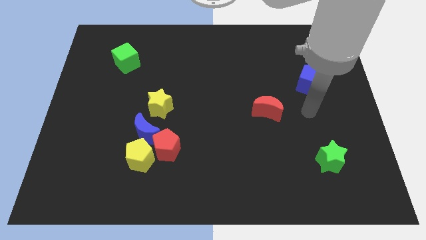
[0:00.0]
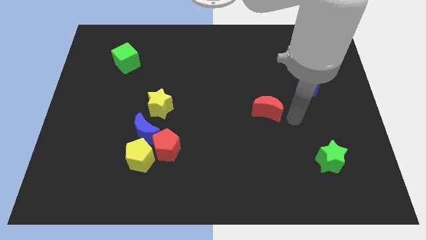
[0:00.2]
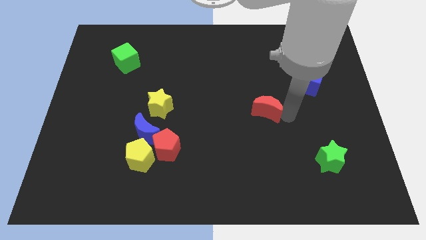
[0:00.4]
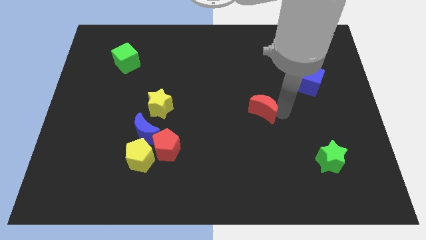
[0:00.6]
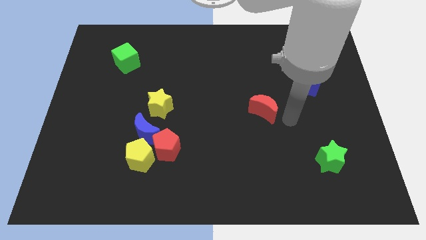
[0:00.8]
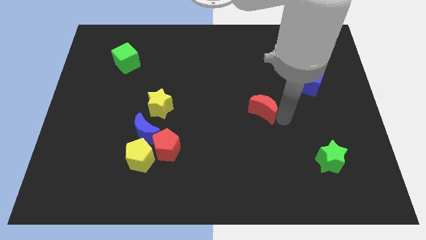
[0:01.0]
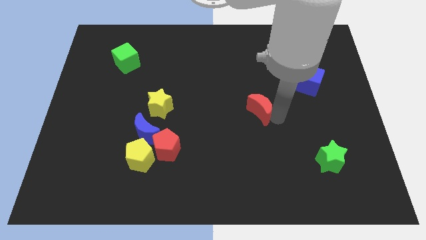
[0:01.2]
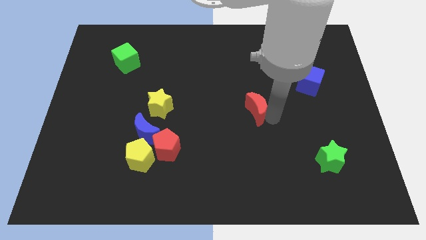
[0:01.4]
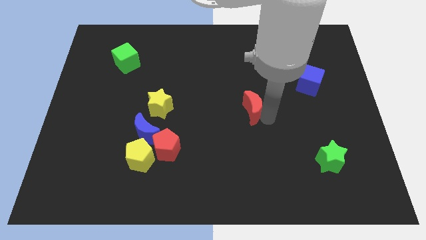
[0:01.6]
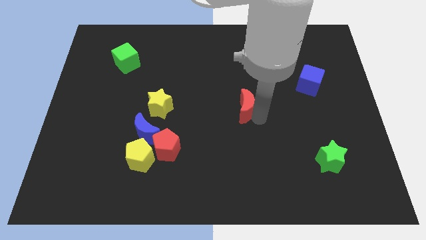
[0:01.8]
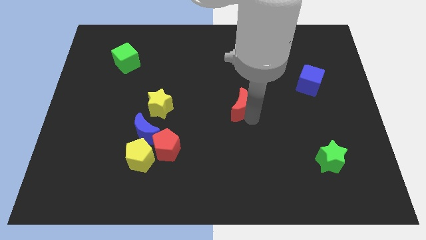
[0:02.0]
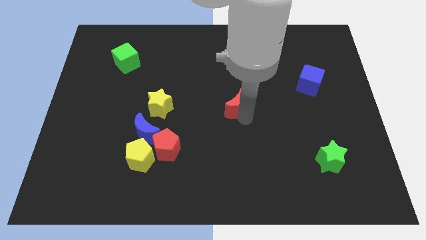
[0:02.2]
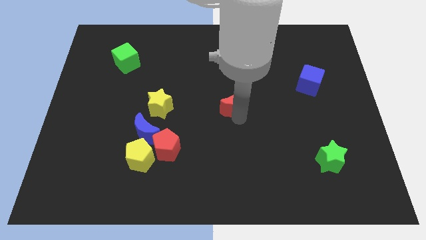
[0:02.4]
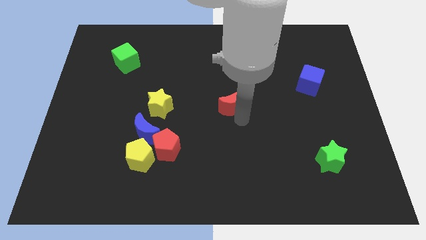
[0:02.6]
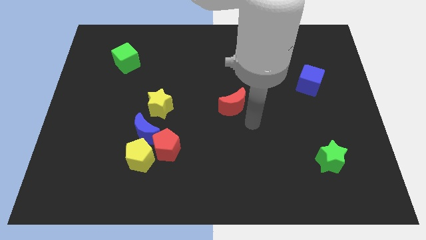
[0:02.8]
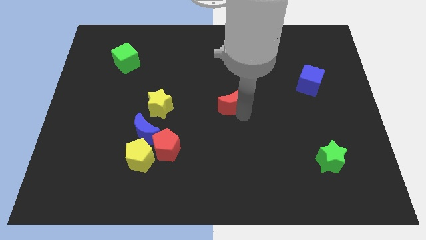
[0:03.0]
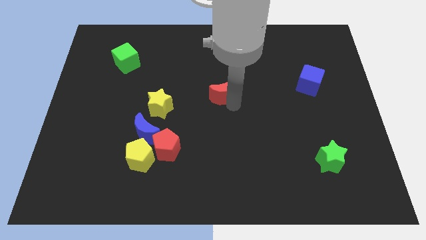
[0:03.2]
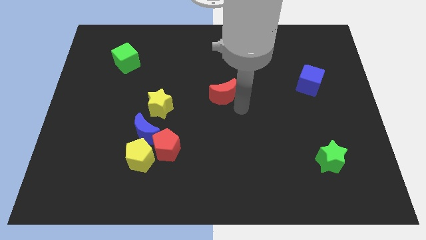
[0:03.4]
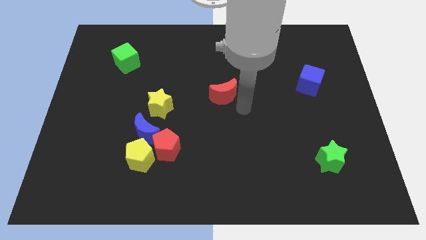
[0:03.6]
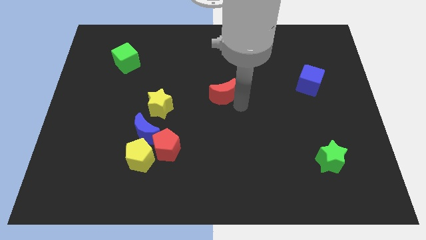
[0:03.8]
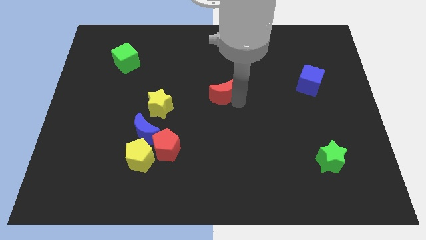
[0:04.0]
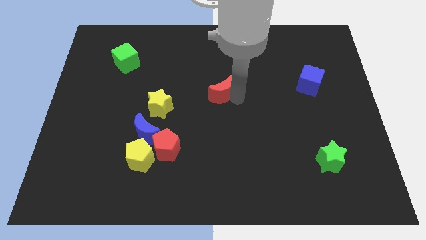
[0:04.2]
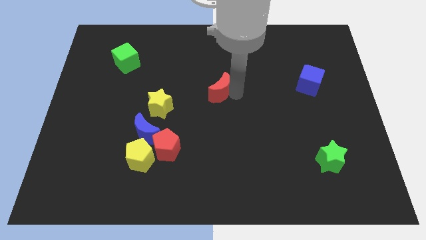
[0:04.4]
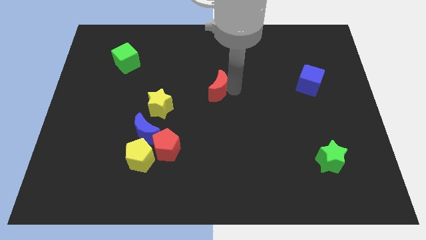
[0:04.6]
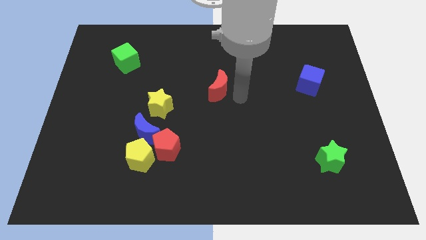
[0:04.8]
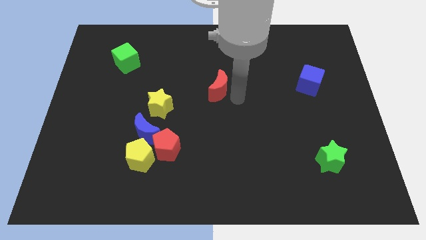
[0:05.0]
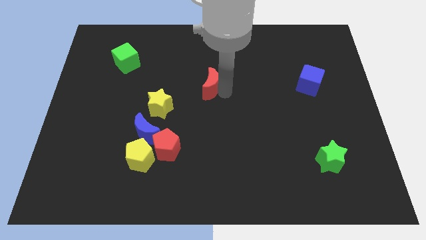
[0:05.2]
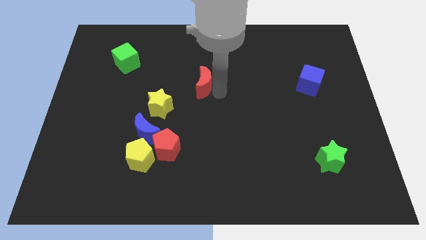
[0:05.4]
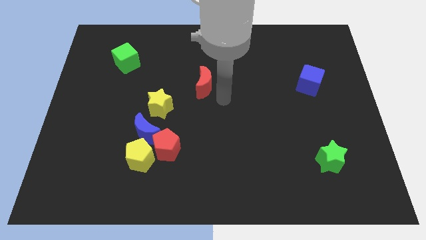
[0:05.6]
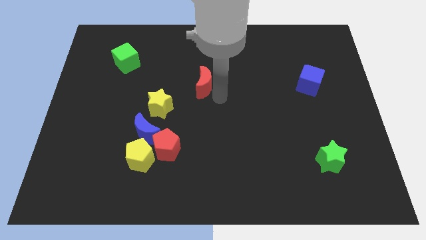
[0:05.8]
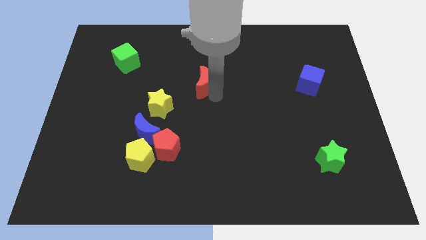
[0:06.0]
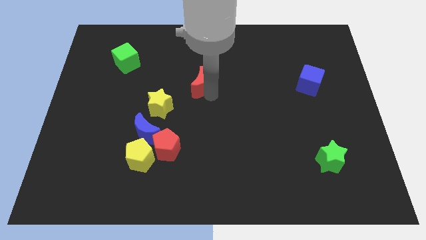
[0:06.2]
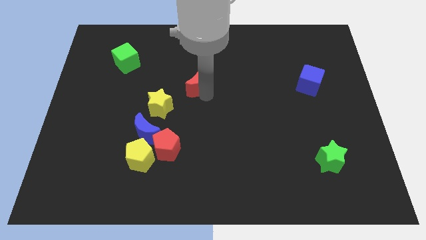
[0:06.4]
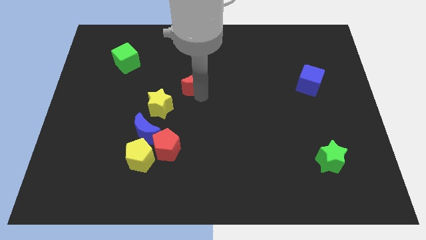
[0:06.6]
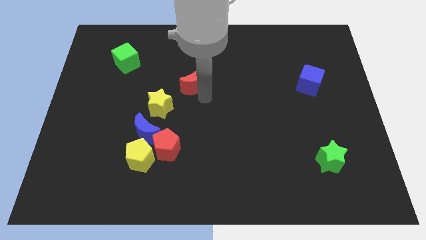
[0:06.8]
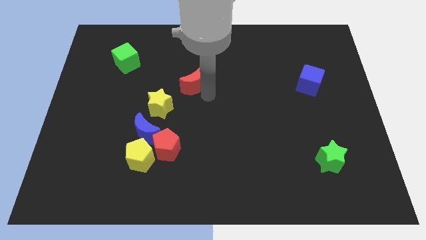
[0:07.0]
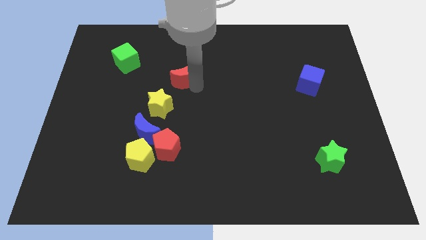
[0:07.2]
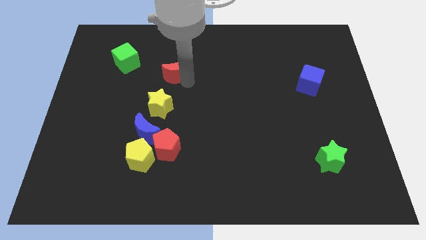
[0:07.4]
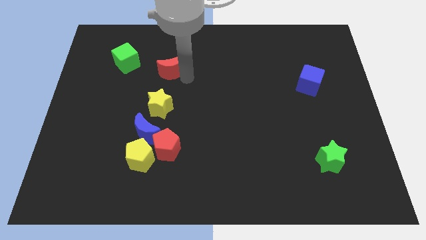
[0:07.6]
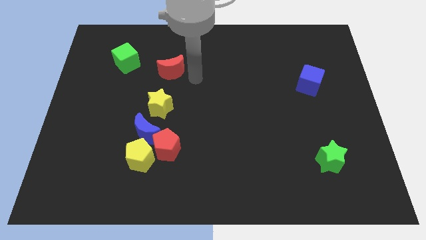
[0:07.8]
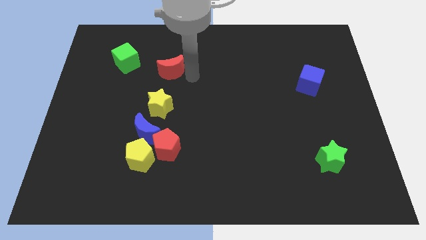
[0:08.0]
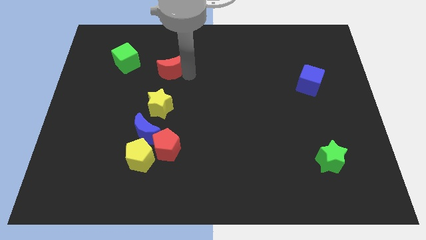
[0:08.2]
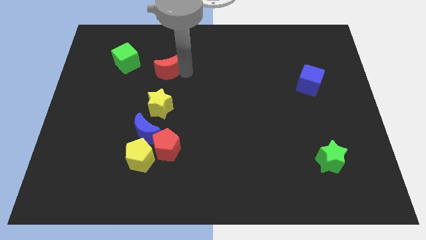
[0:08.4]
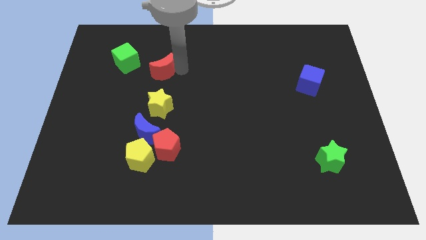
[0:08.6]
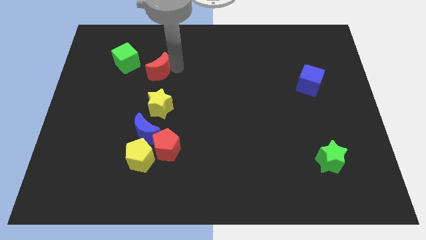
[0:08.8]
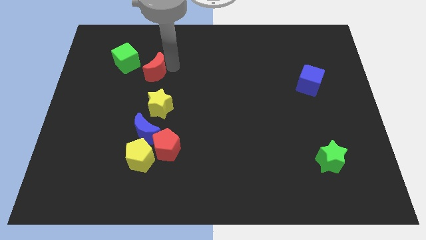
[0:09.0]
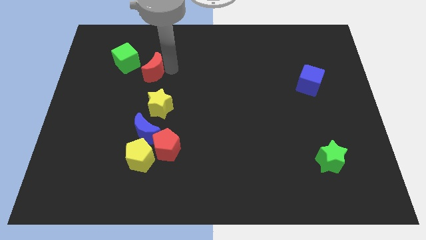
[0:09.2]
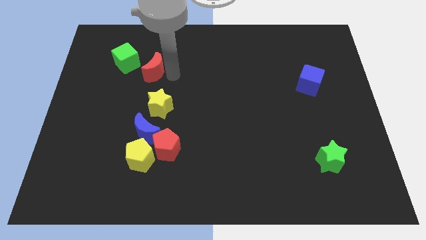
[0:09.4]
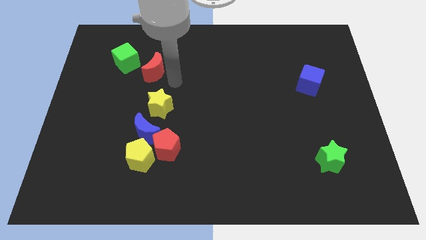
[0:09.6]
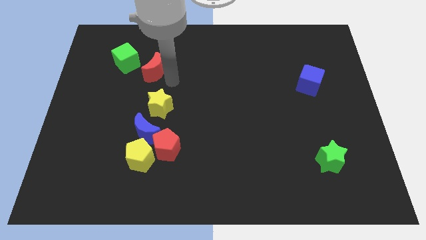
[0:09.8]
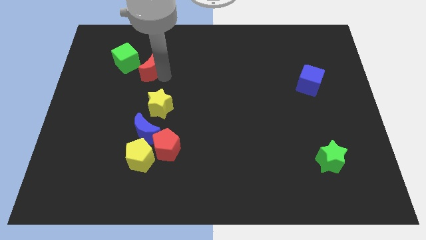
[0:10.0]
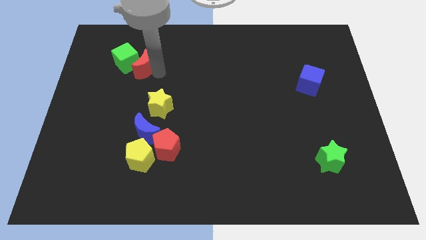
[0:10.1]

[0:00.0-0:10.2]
slide the red moon towards the green cube

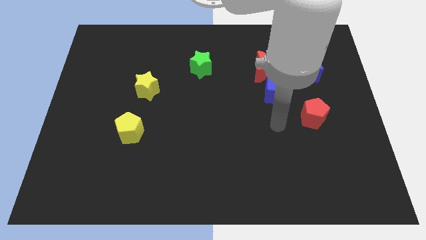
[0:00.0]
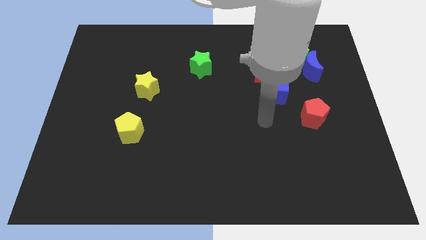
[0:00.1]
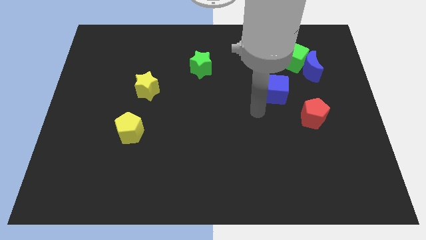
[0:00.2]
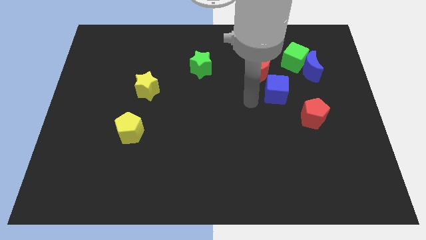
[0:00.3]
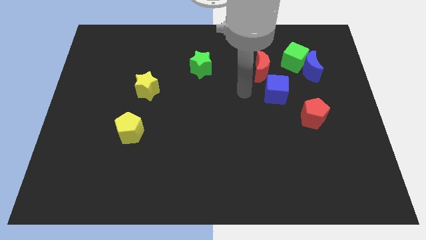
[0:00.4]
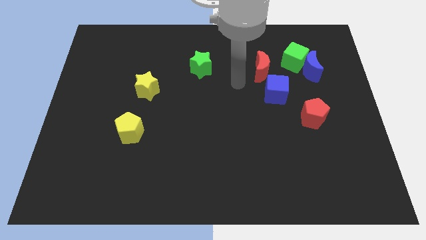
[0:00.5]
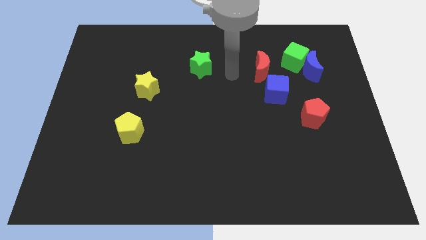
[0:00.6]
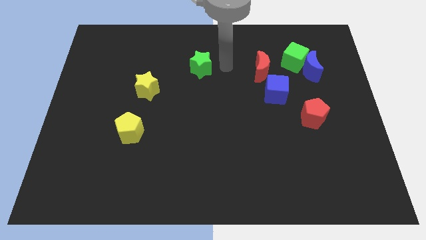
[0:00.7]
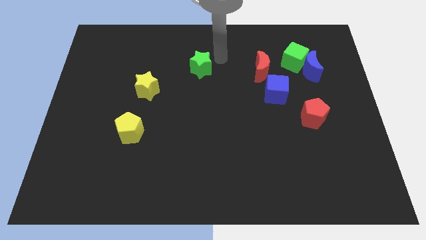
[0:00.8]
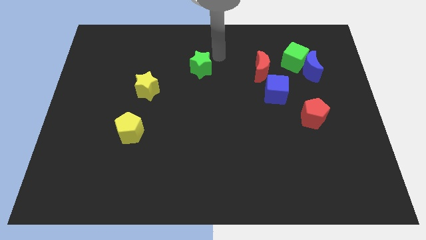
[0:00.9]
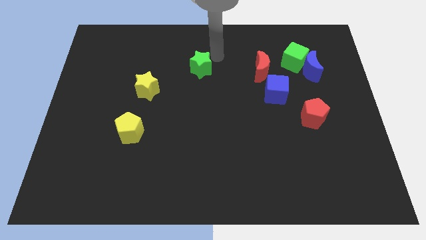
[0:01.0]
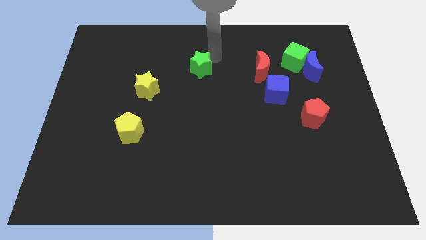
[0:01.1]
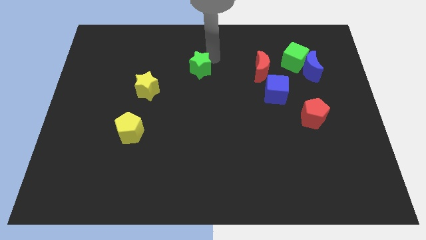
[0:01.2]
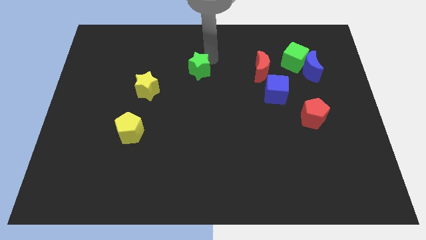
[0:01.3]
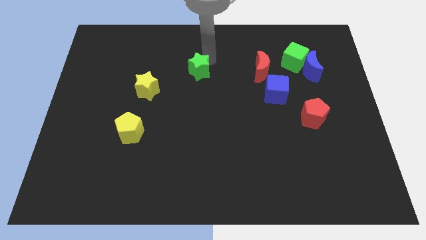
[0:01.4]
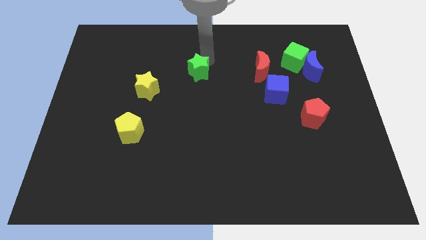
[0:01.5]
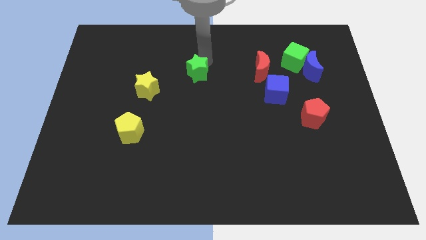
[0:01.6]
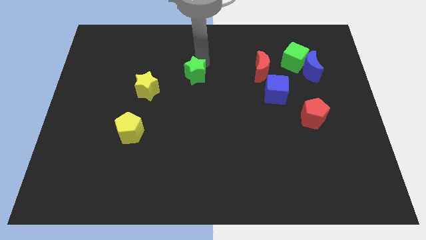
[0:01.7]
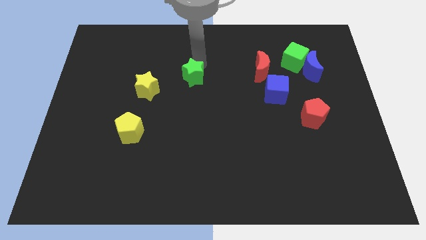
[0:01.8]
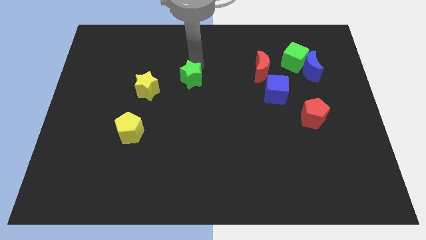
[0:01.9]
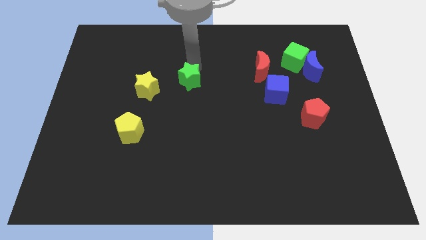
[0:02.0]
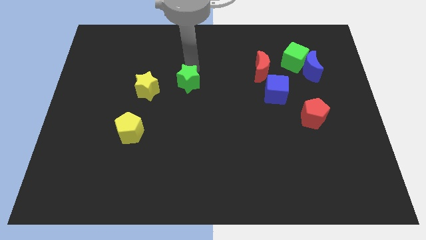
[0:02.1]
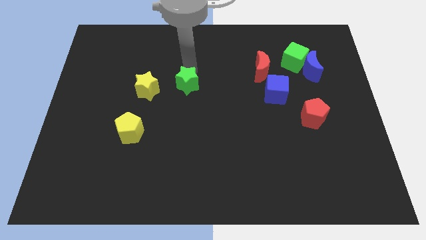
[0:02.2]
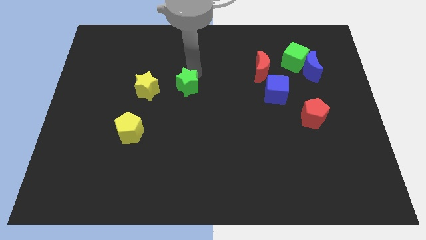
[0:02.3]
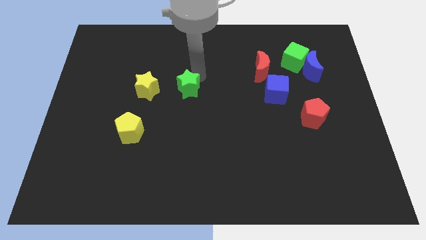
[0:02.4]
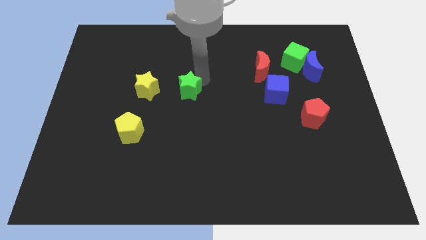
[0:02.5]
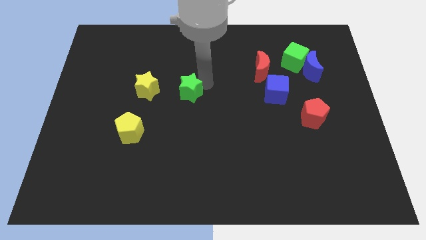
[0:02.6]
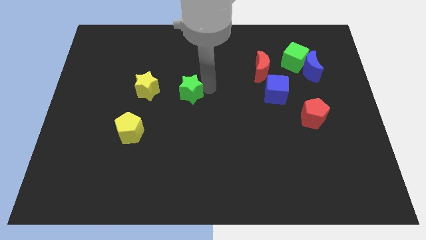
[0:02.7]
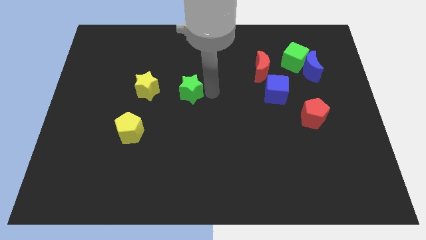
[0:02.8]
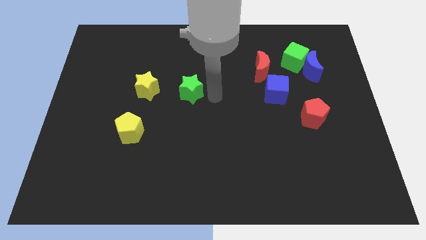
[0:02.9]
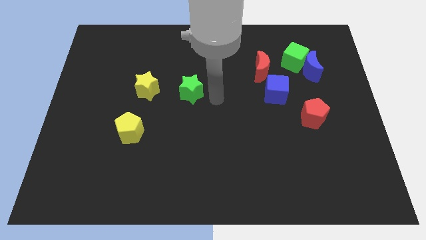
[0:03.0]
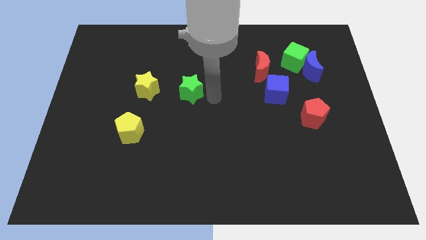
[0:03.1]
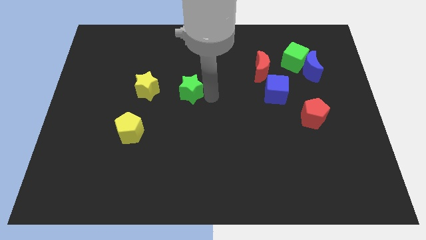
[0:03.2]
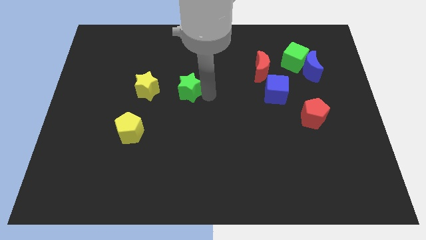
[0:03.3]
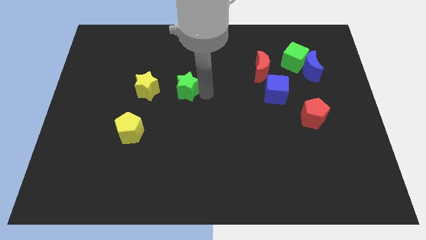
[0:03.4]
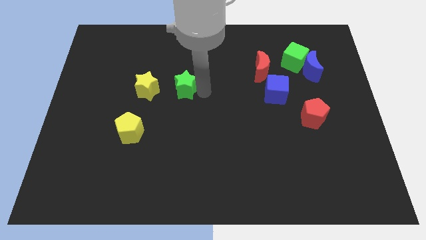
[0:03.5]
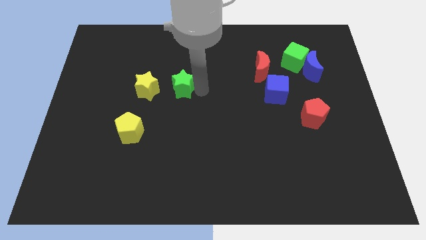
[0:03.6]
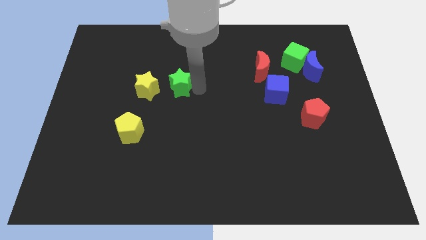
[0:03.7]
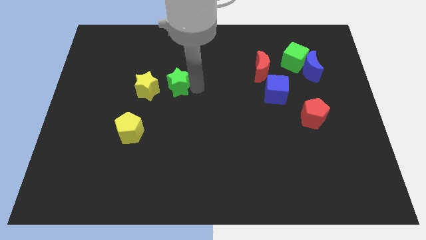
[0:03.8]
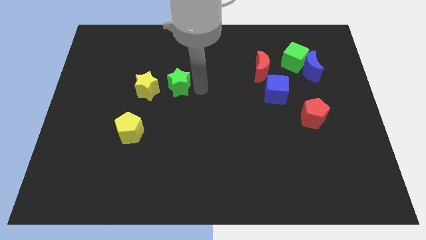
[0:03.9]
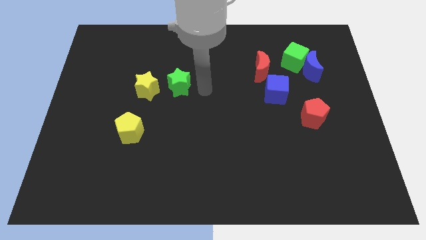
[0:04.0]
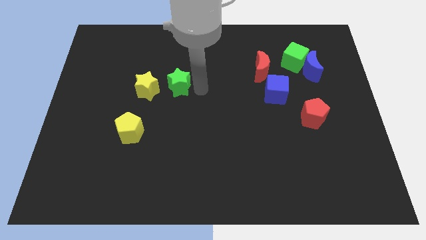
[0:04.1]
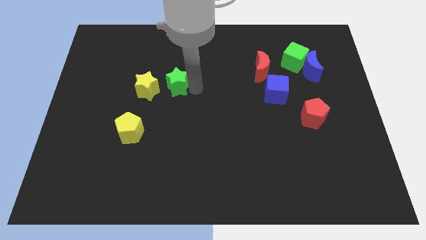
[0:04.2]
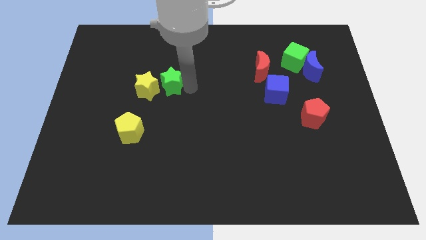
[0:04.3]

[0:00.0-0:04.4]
put the green star next to the yellow star
